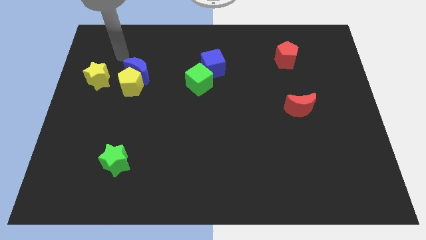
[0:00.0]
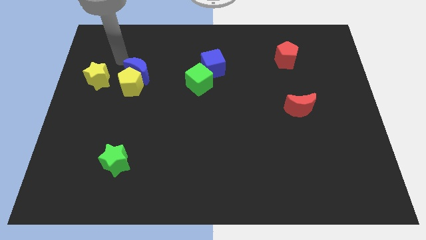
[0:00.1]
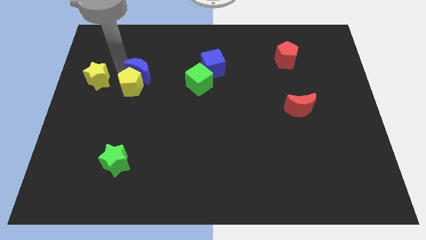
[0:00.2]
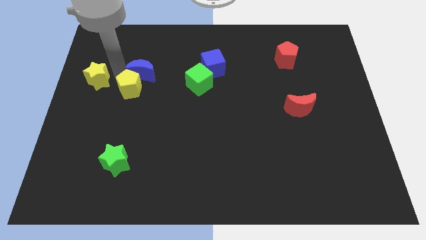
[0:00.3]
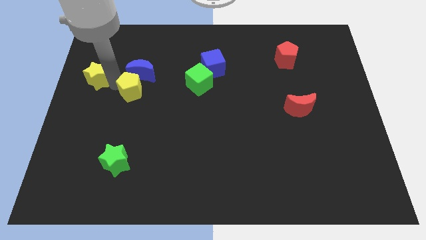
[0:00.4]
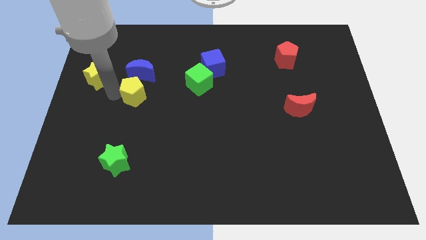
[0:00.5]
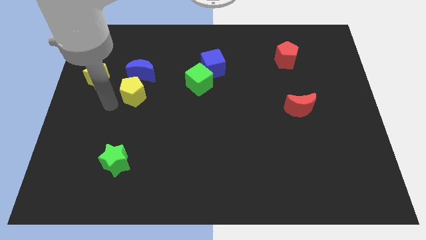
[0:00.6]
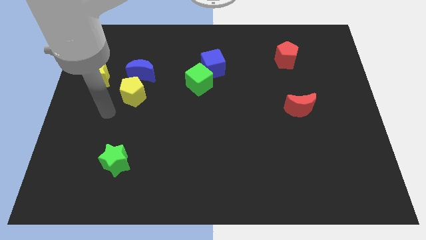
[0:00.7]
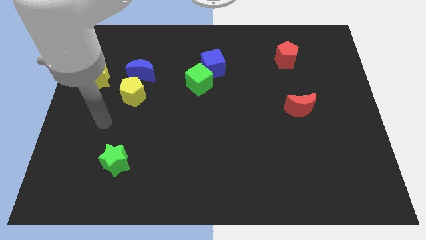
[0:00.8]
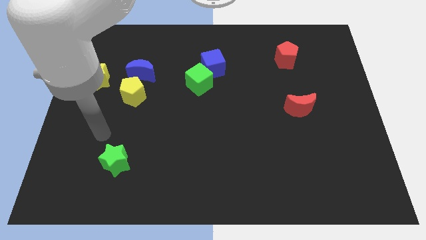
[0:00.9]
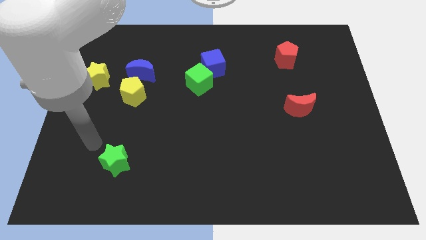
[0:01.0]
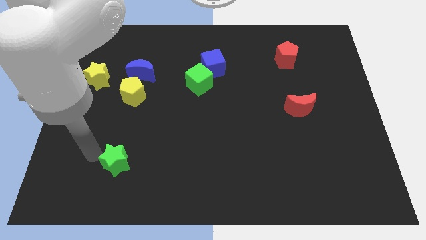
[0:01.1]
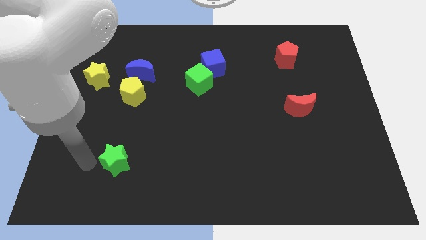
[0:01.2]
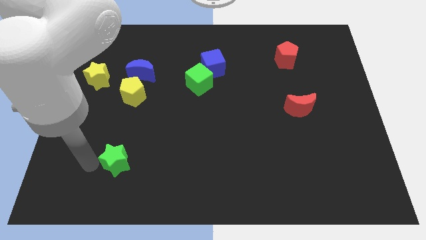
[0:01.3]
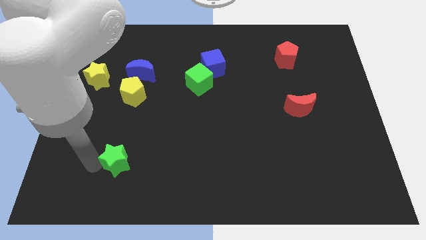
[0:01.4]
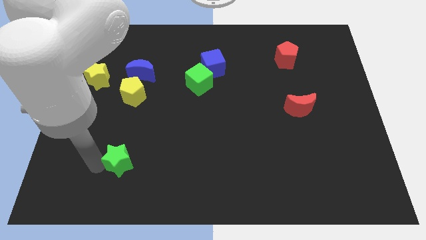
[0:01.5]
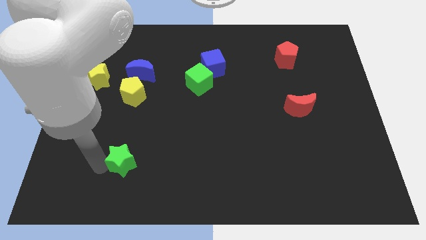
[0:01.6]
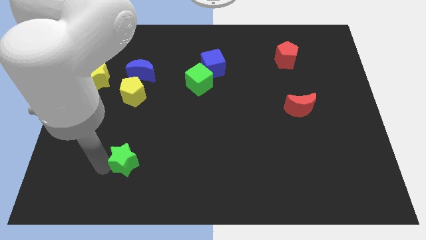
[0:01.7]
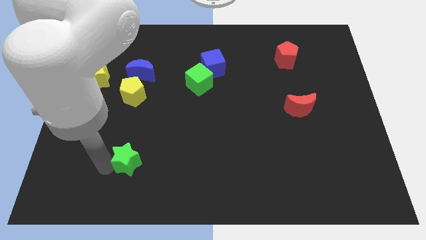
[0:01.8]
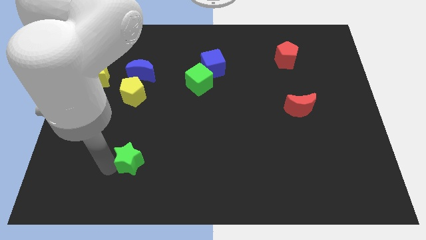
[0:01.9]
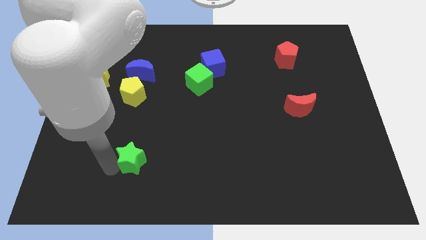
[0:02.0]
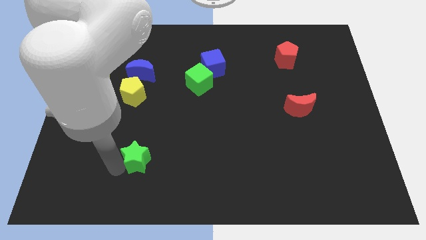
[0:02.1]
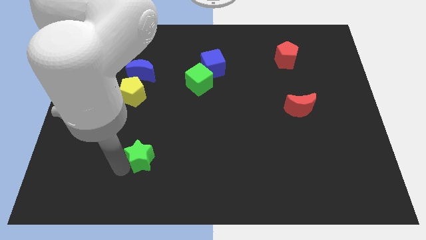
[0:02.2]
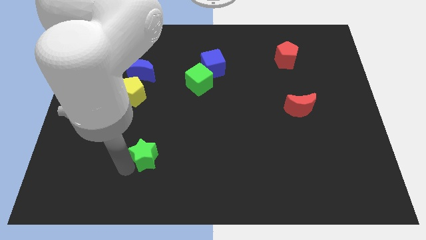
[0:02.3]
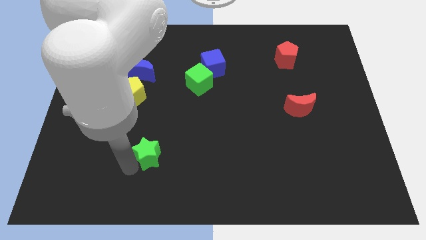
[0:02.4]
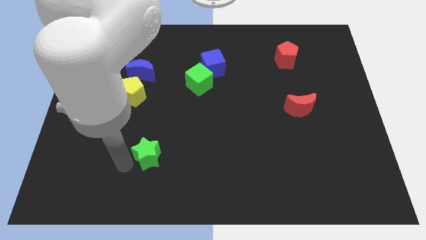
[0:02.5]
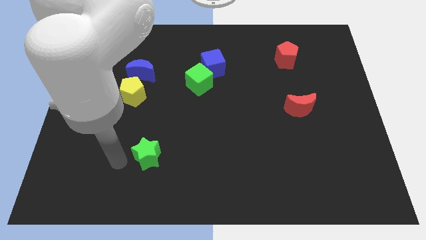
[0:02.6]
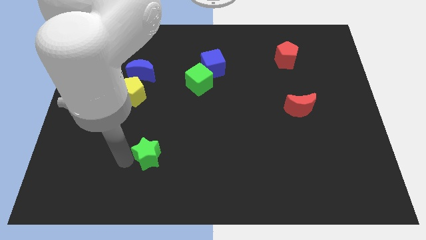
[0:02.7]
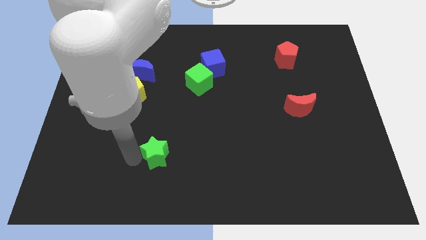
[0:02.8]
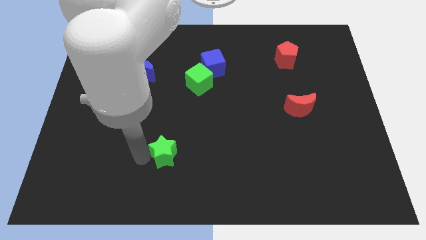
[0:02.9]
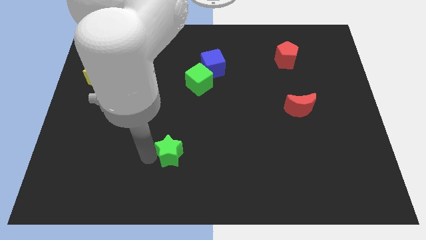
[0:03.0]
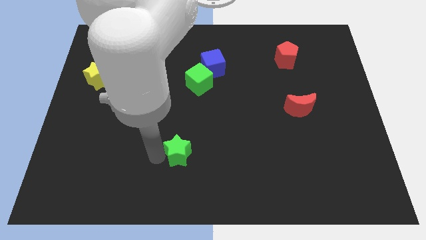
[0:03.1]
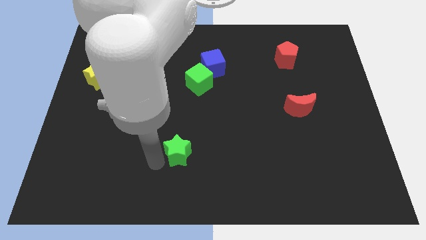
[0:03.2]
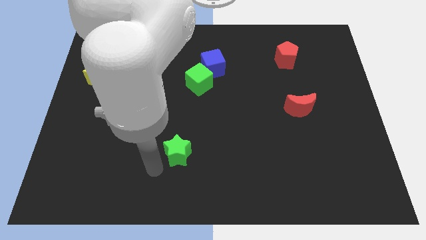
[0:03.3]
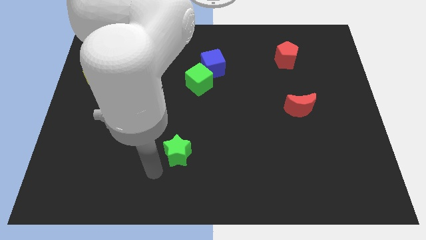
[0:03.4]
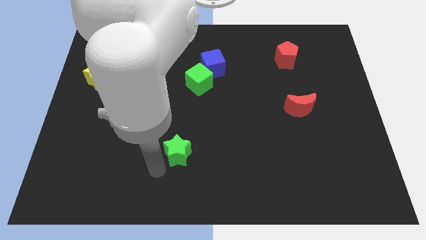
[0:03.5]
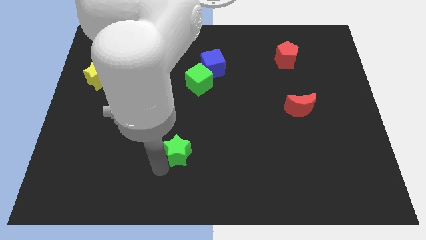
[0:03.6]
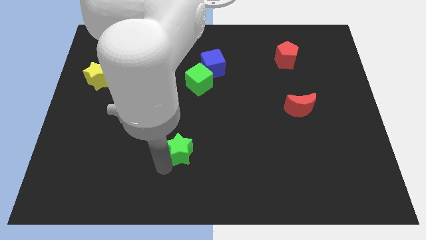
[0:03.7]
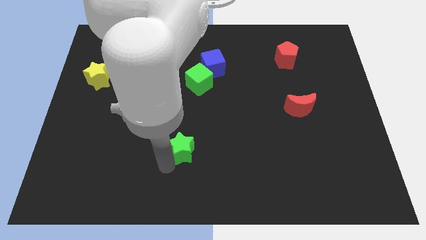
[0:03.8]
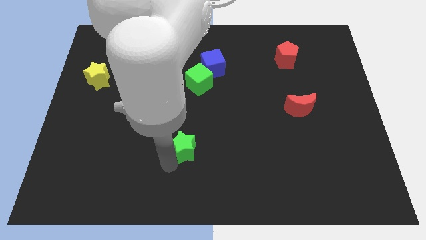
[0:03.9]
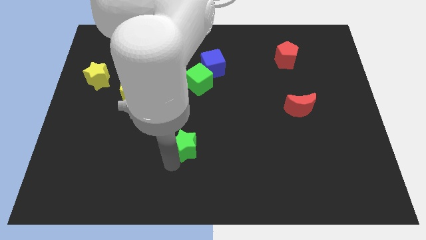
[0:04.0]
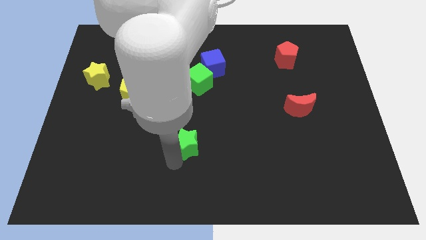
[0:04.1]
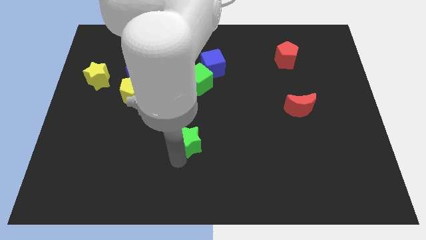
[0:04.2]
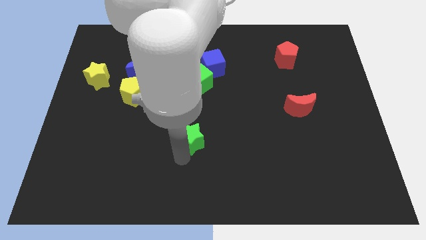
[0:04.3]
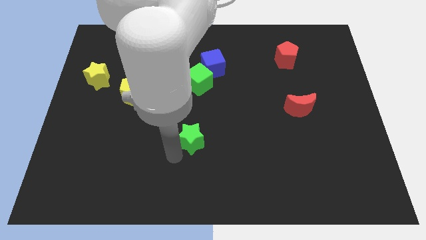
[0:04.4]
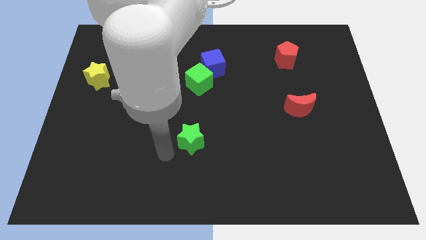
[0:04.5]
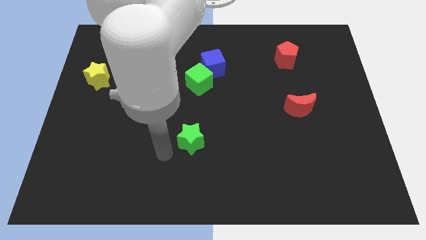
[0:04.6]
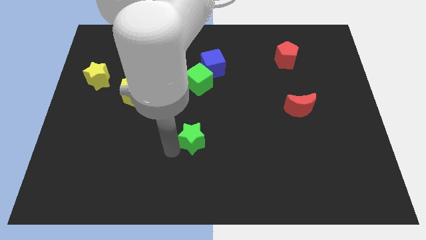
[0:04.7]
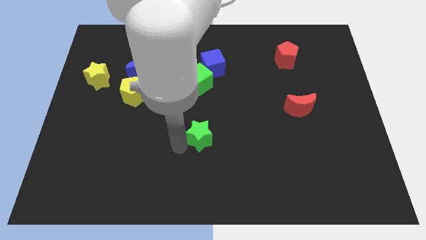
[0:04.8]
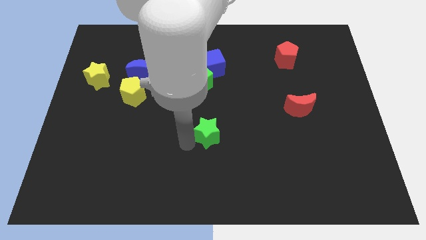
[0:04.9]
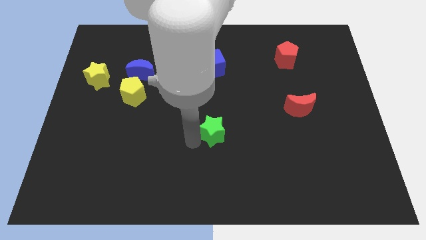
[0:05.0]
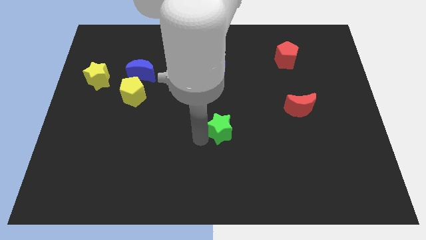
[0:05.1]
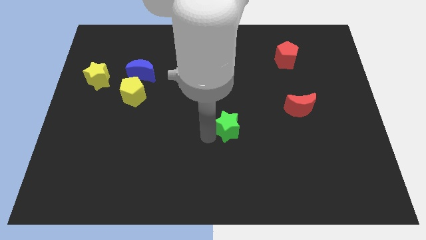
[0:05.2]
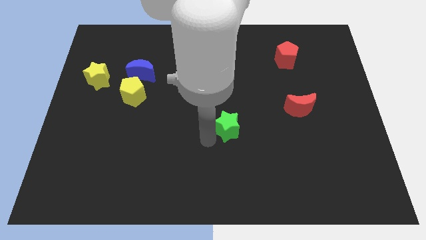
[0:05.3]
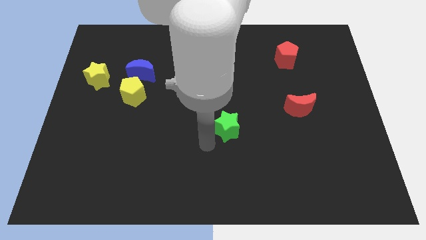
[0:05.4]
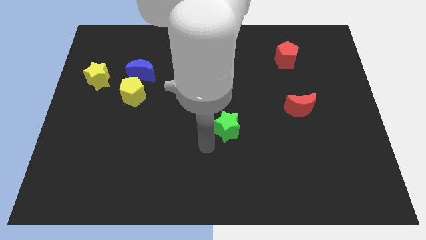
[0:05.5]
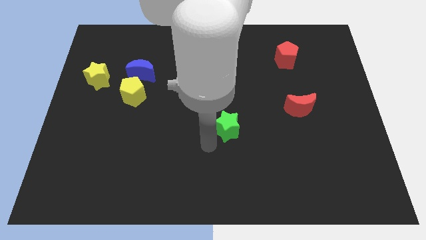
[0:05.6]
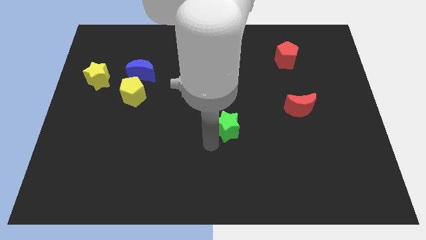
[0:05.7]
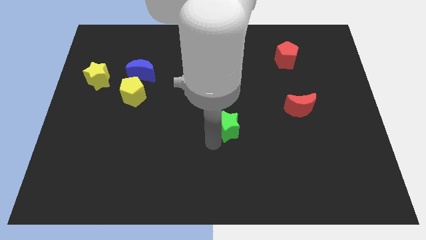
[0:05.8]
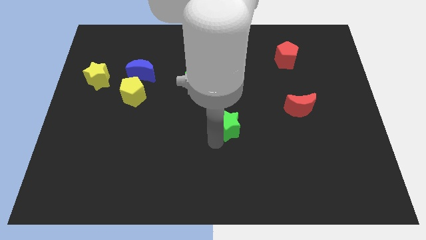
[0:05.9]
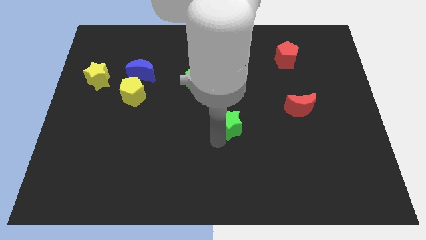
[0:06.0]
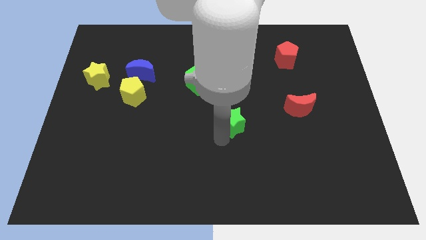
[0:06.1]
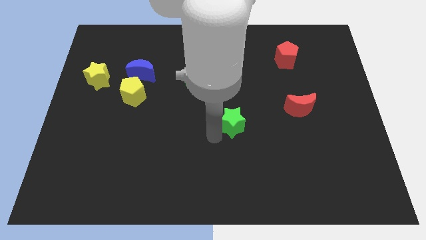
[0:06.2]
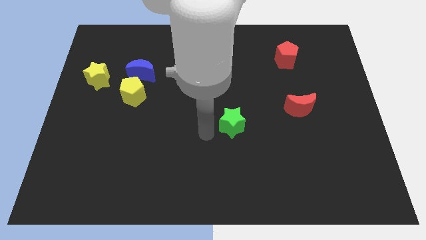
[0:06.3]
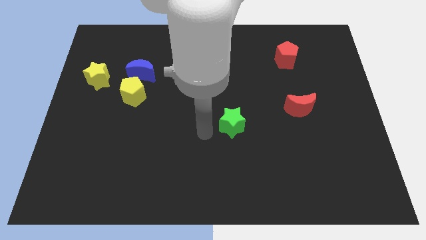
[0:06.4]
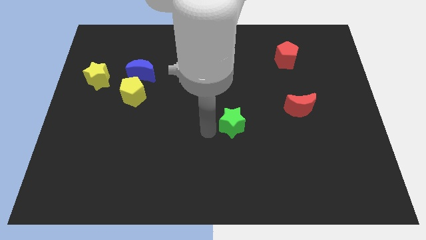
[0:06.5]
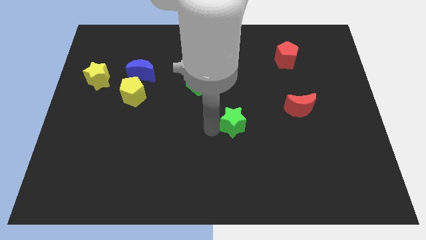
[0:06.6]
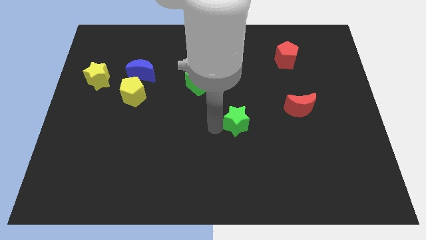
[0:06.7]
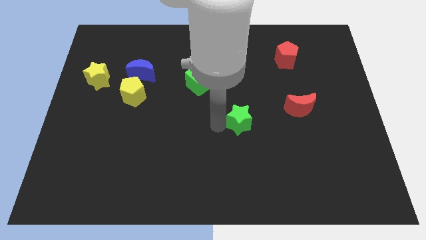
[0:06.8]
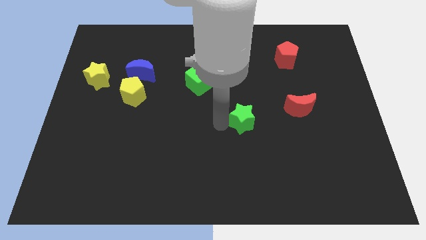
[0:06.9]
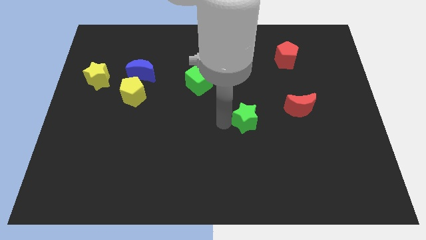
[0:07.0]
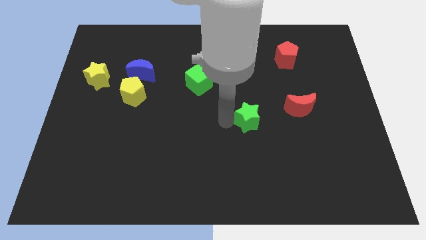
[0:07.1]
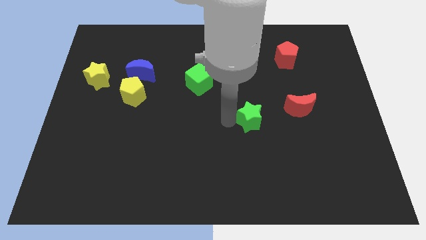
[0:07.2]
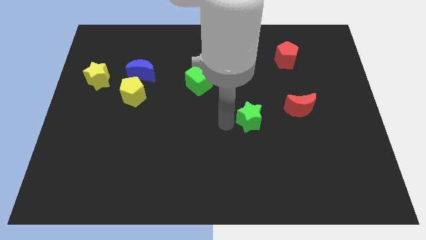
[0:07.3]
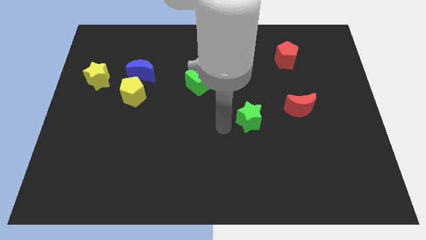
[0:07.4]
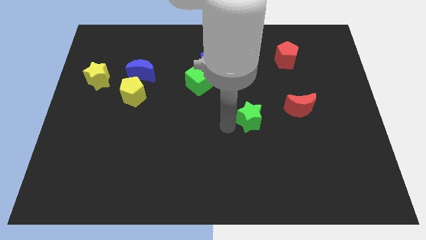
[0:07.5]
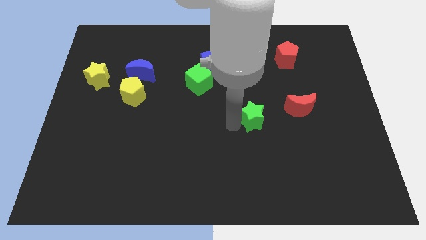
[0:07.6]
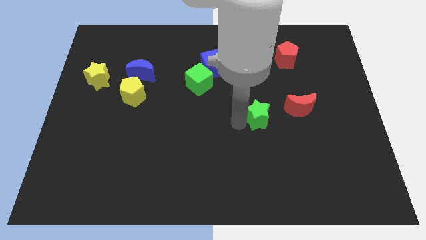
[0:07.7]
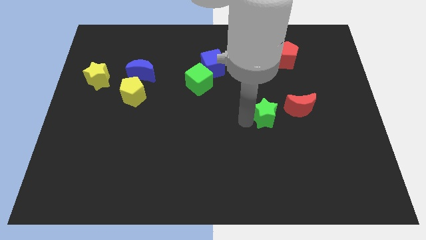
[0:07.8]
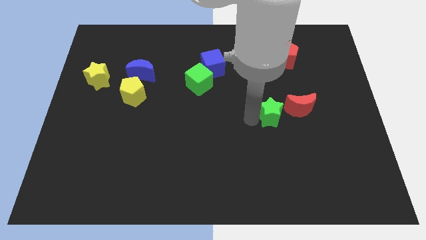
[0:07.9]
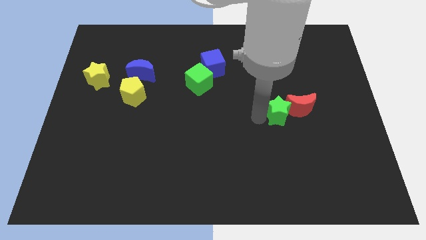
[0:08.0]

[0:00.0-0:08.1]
move the green star close to the red moon

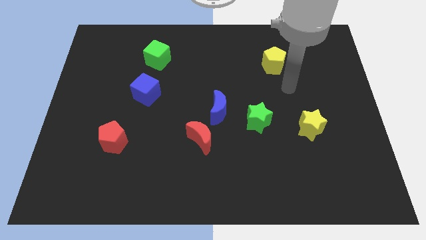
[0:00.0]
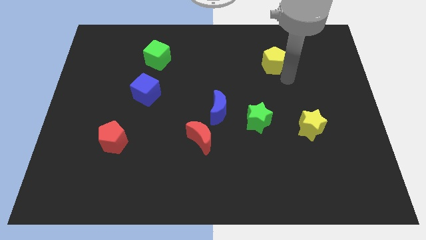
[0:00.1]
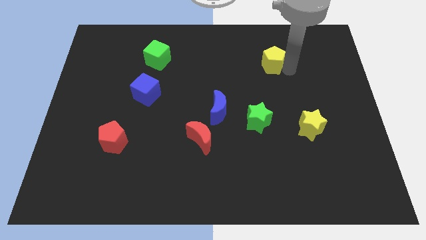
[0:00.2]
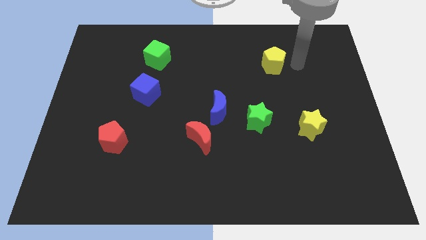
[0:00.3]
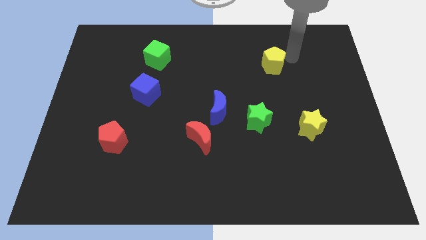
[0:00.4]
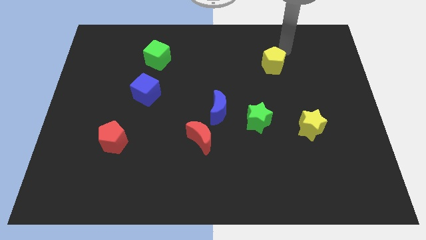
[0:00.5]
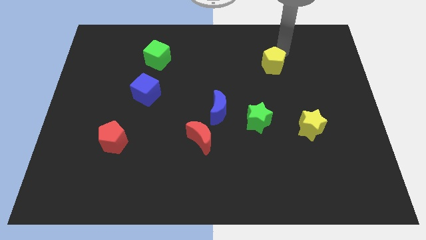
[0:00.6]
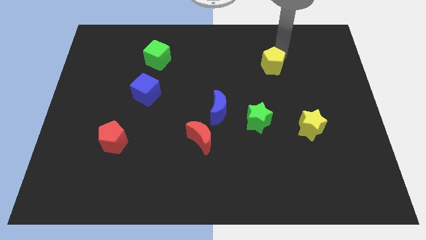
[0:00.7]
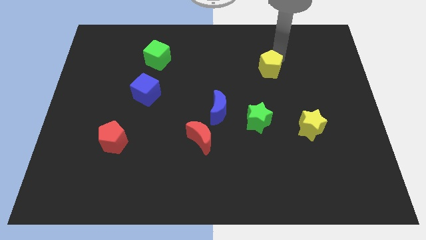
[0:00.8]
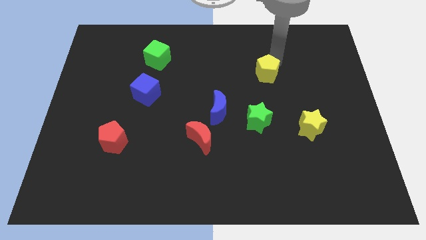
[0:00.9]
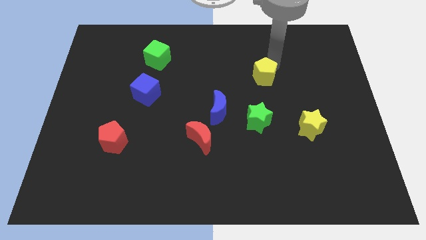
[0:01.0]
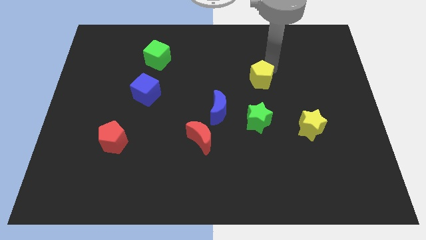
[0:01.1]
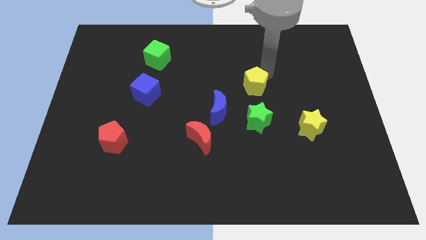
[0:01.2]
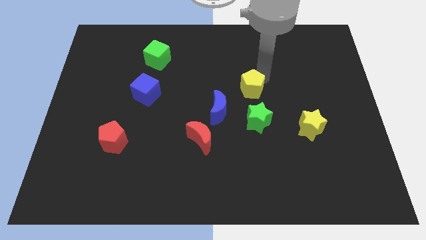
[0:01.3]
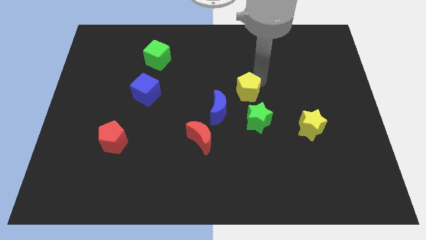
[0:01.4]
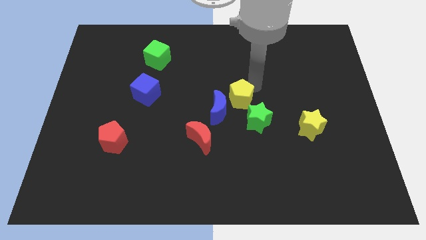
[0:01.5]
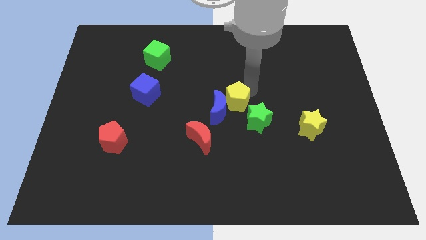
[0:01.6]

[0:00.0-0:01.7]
slide the yellow pentagon to the blue moon
